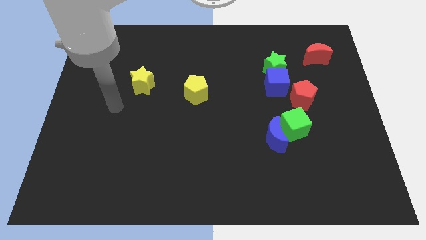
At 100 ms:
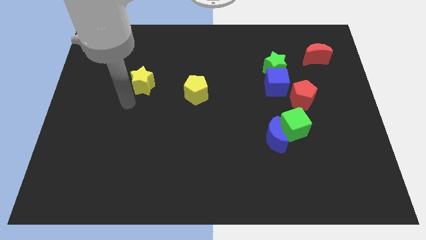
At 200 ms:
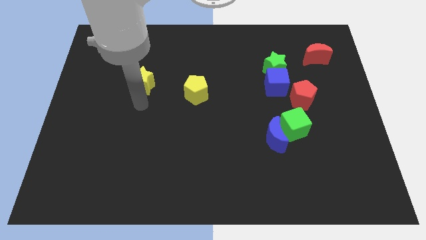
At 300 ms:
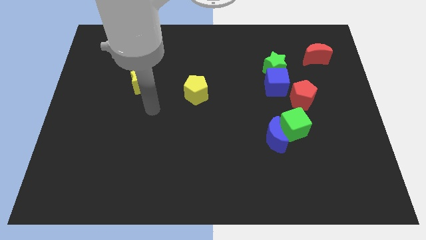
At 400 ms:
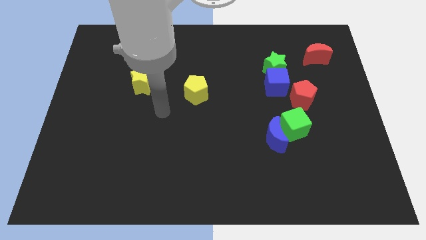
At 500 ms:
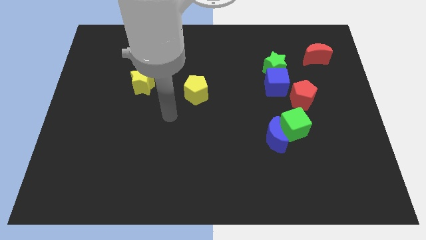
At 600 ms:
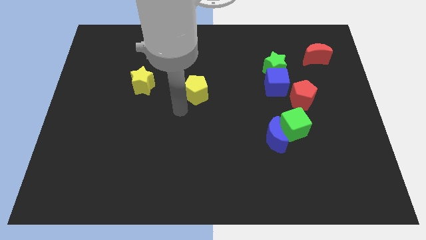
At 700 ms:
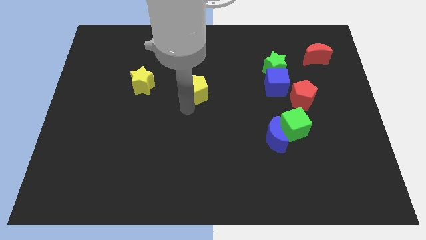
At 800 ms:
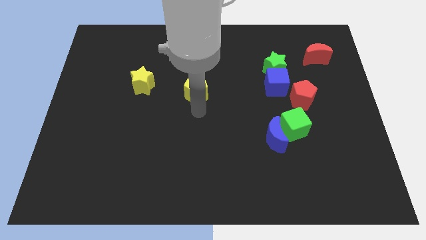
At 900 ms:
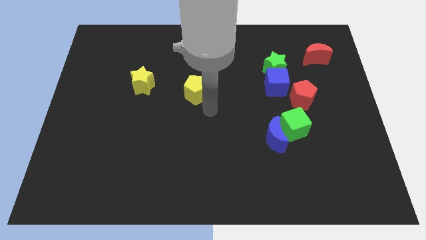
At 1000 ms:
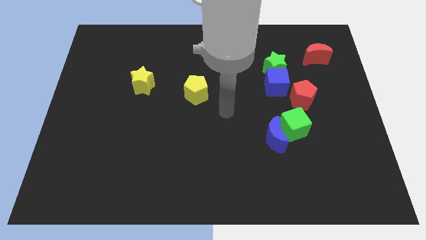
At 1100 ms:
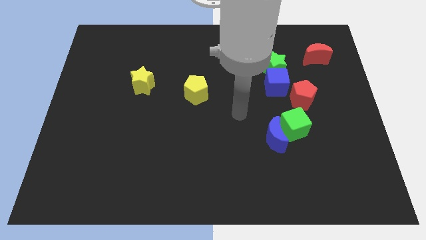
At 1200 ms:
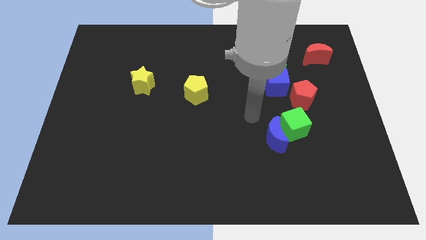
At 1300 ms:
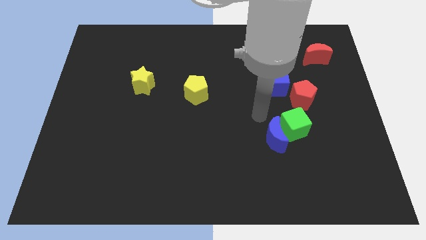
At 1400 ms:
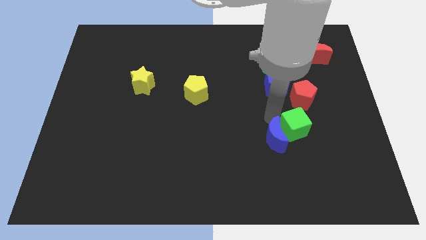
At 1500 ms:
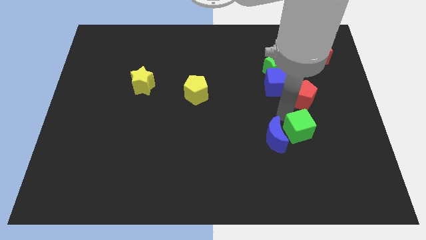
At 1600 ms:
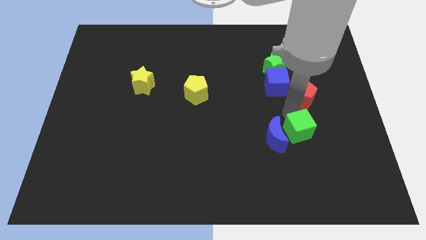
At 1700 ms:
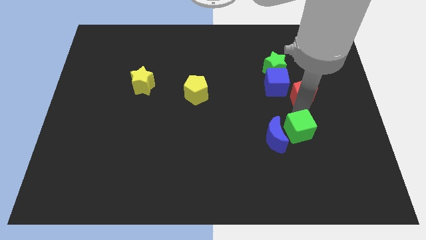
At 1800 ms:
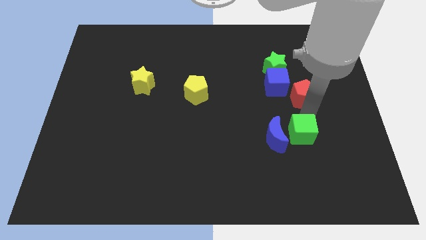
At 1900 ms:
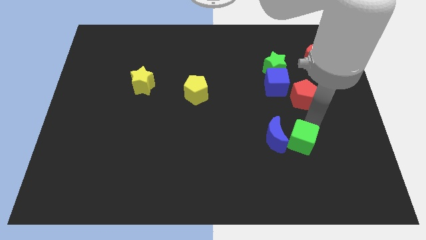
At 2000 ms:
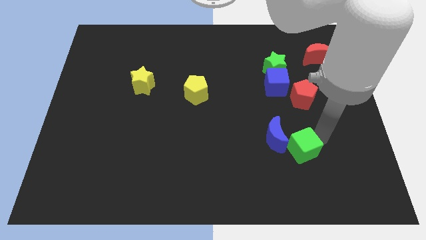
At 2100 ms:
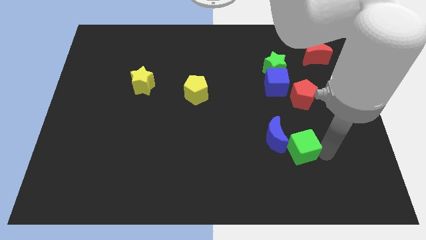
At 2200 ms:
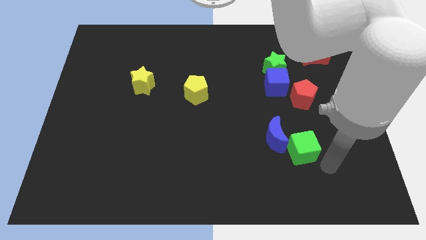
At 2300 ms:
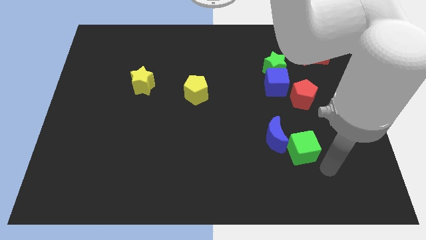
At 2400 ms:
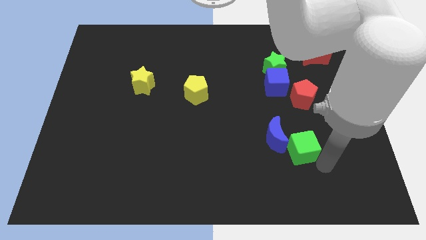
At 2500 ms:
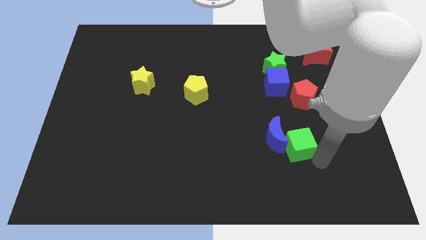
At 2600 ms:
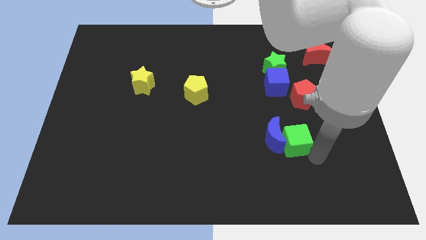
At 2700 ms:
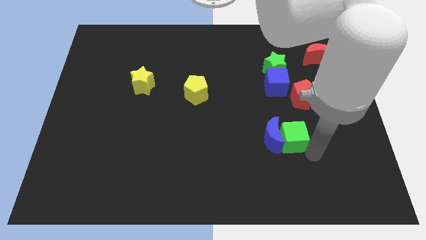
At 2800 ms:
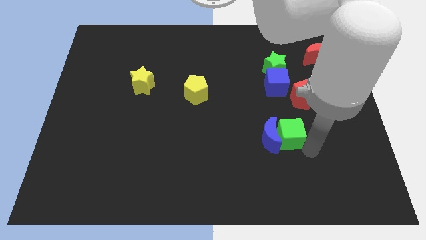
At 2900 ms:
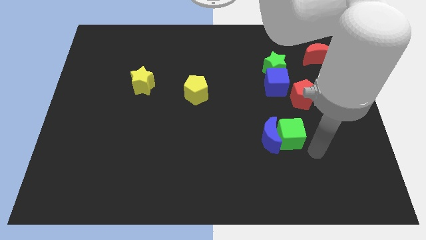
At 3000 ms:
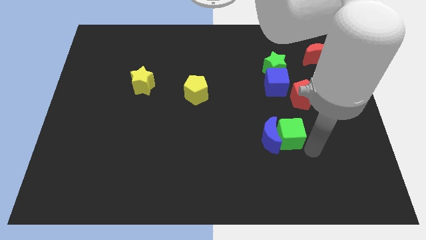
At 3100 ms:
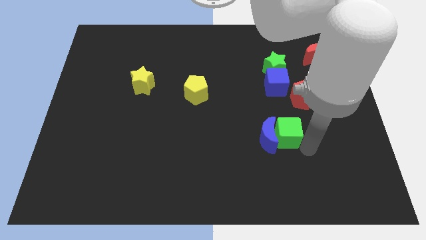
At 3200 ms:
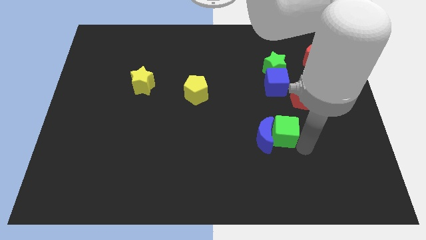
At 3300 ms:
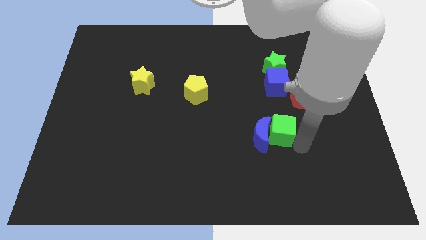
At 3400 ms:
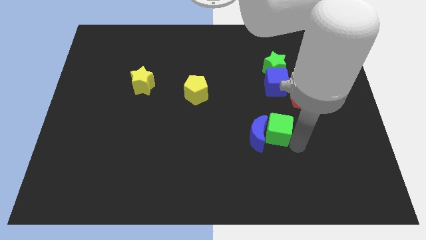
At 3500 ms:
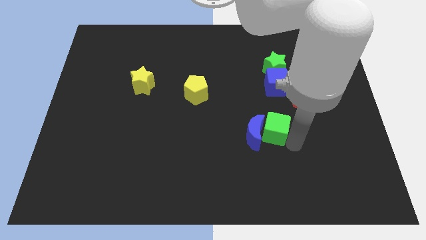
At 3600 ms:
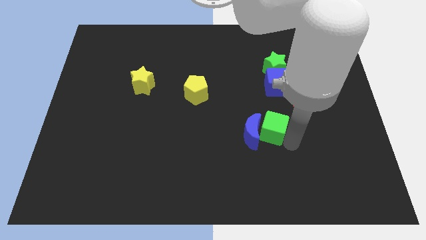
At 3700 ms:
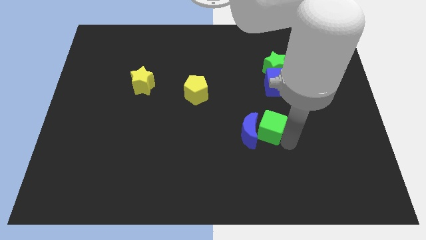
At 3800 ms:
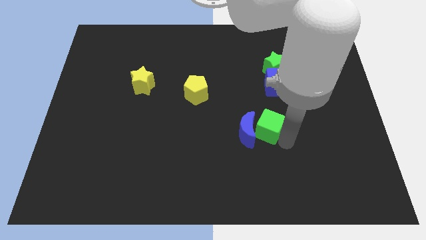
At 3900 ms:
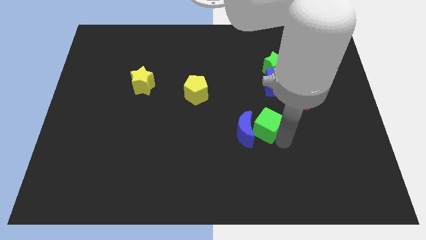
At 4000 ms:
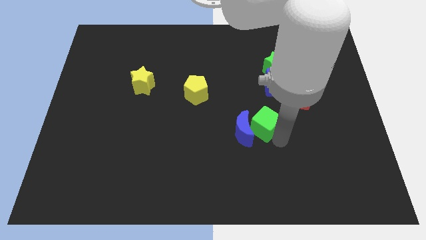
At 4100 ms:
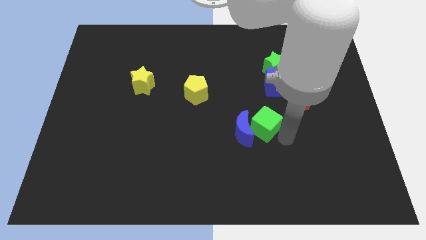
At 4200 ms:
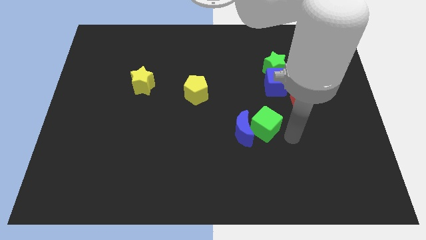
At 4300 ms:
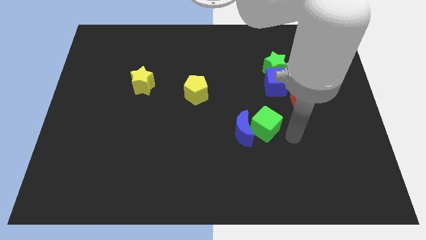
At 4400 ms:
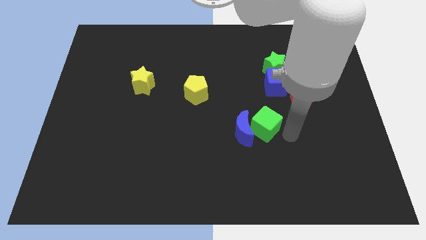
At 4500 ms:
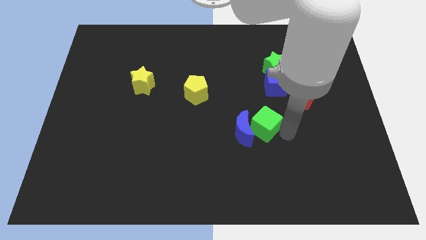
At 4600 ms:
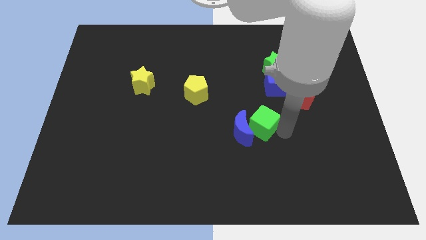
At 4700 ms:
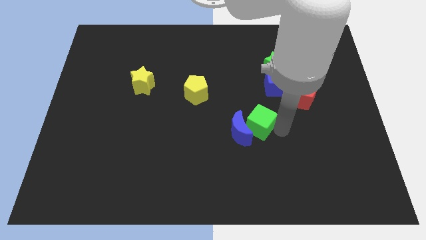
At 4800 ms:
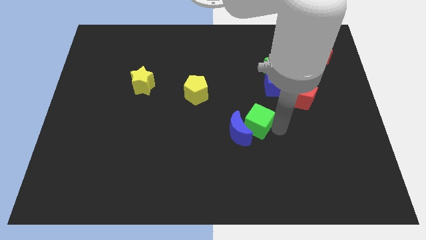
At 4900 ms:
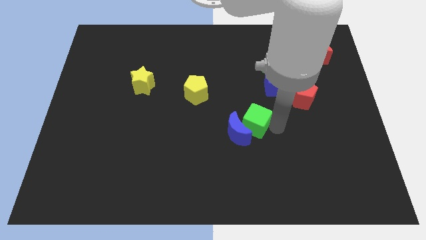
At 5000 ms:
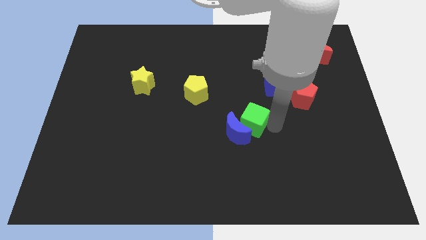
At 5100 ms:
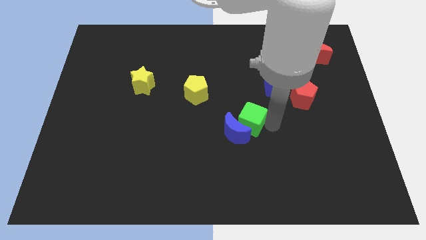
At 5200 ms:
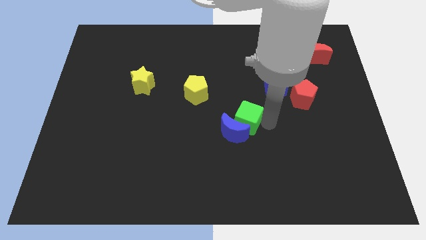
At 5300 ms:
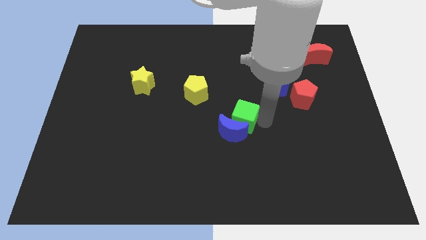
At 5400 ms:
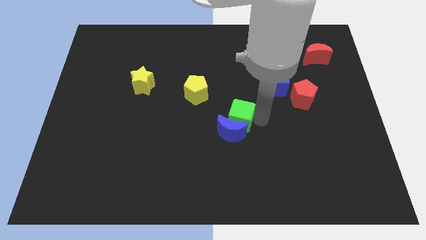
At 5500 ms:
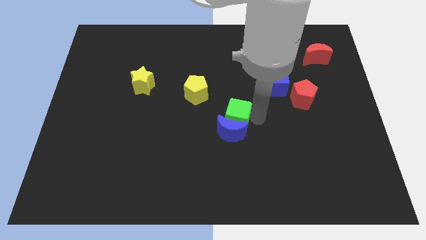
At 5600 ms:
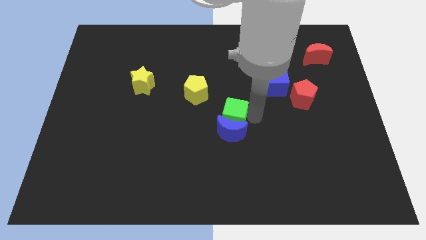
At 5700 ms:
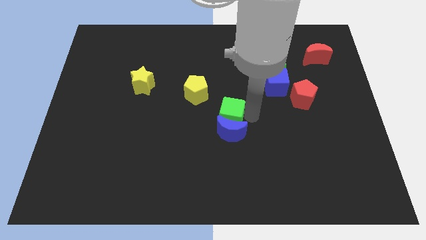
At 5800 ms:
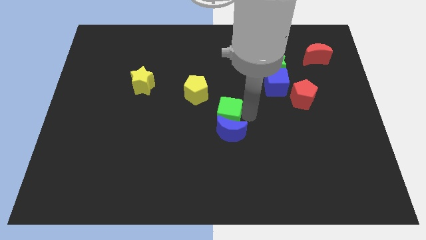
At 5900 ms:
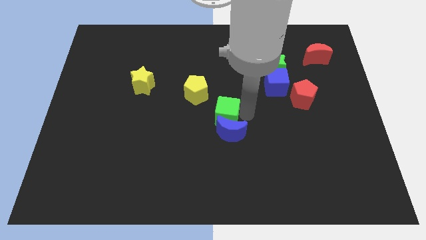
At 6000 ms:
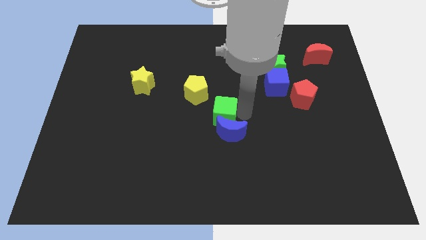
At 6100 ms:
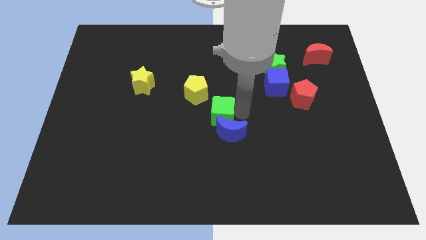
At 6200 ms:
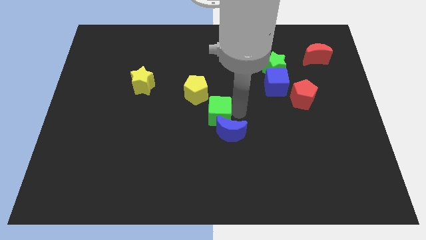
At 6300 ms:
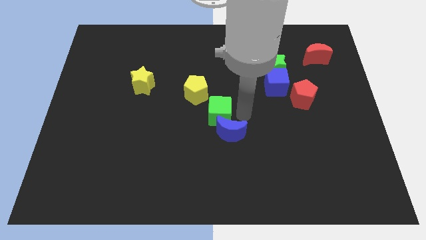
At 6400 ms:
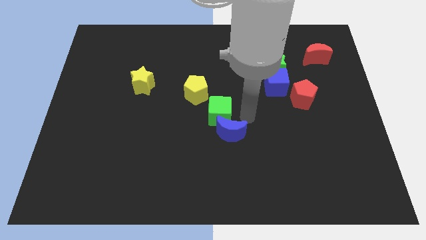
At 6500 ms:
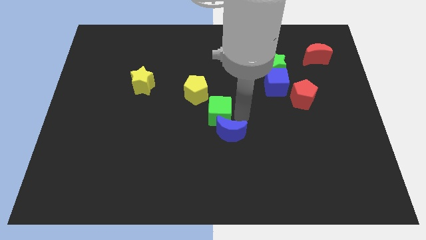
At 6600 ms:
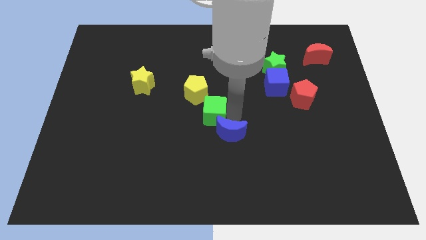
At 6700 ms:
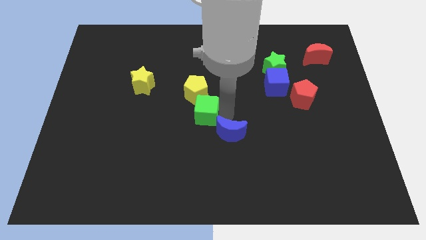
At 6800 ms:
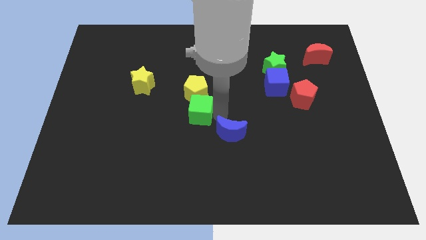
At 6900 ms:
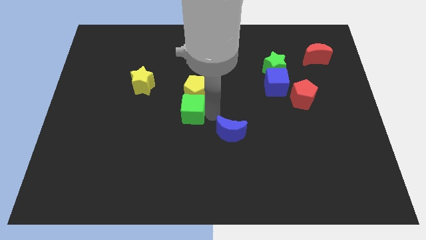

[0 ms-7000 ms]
put the green cube to the bottom left of the yellow pentagon

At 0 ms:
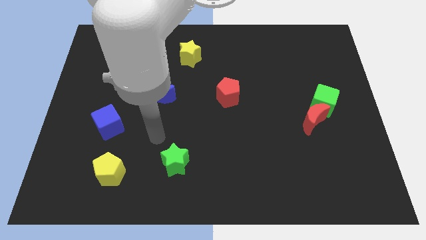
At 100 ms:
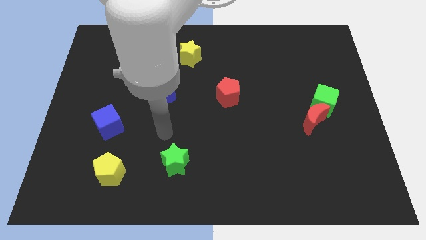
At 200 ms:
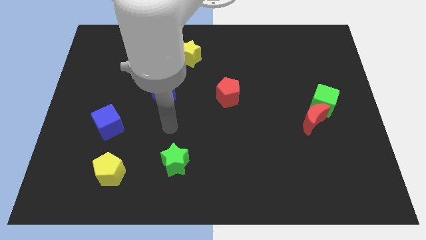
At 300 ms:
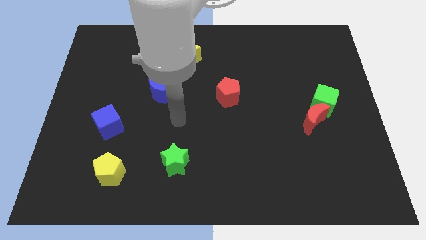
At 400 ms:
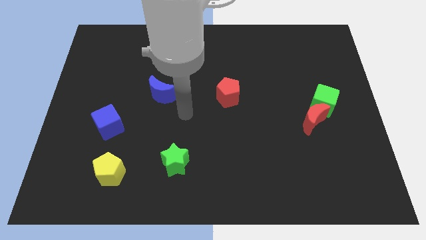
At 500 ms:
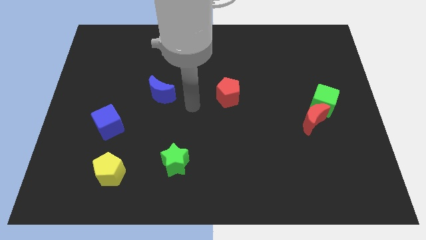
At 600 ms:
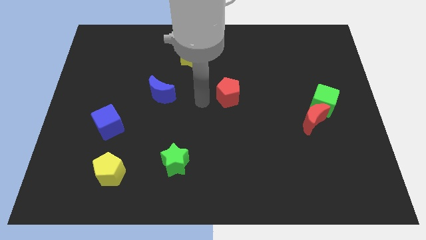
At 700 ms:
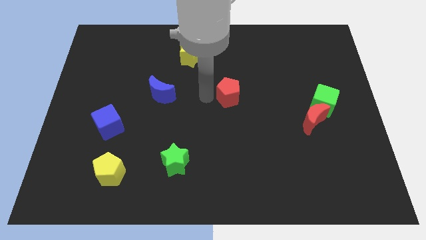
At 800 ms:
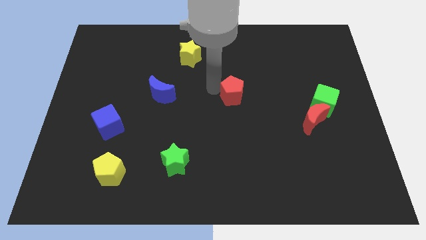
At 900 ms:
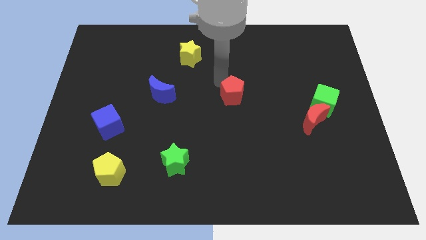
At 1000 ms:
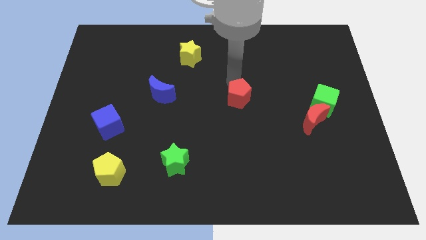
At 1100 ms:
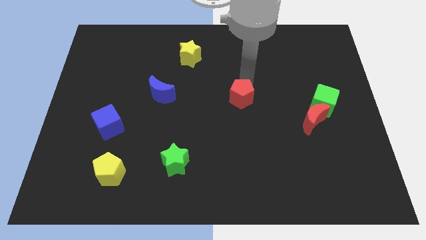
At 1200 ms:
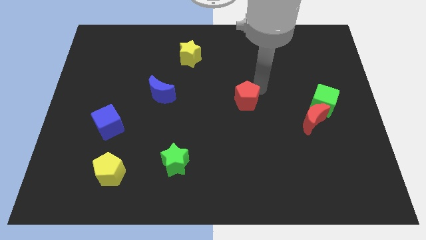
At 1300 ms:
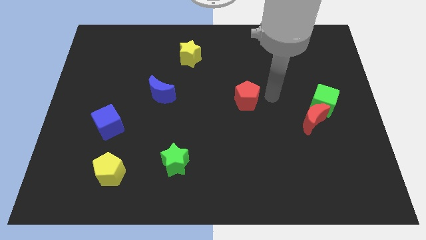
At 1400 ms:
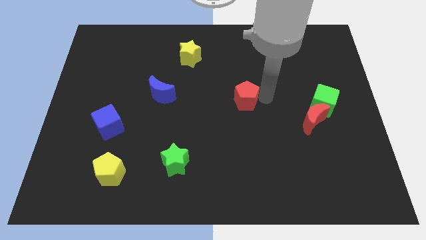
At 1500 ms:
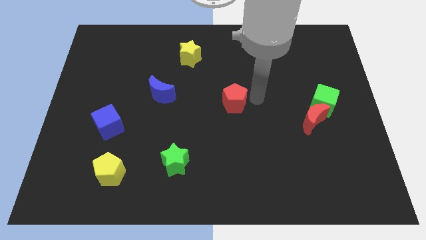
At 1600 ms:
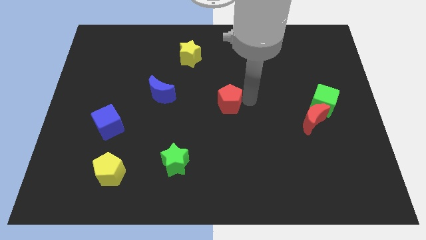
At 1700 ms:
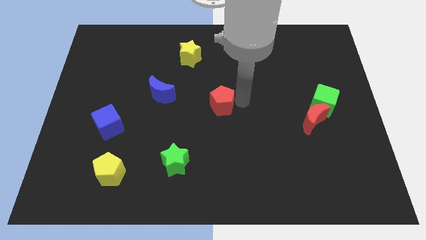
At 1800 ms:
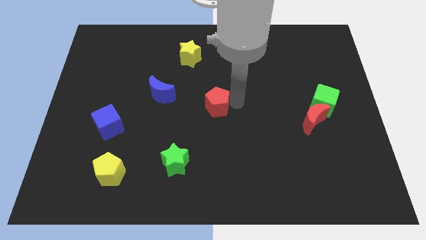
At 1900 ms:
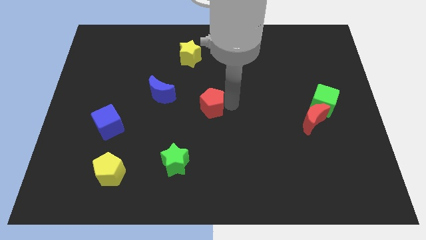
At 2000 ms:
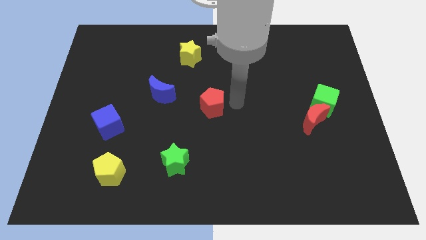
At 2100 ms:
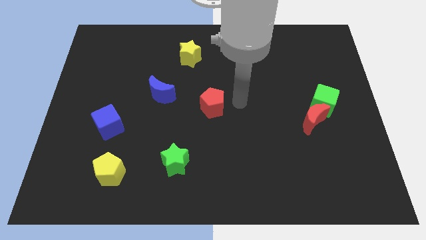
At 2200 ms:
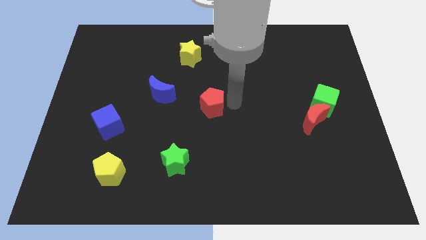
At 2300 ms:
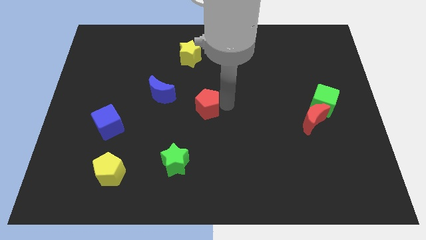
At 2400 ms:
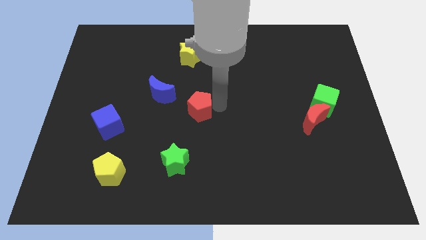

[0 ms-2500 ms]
move the red pentagon to the bottom right side of the blue moon
